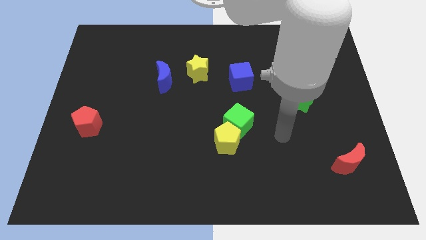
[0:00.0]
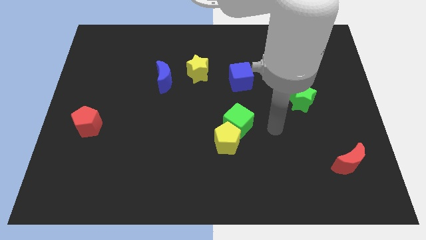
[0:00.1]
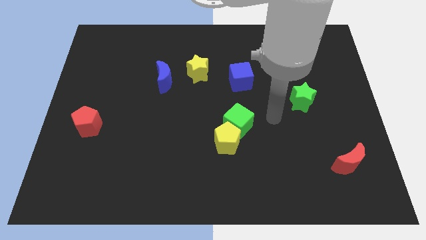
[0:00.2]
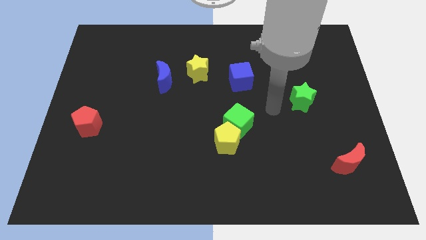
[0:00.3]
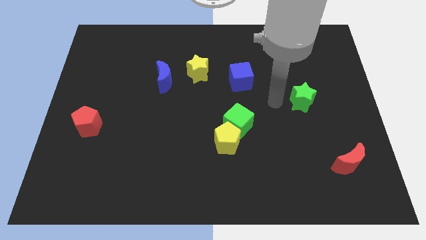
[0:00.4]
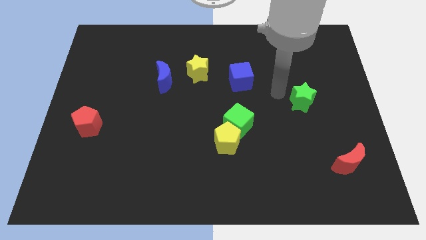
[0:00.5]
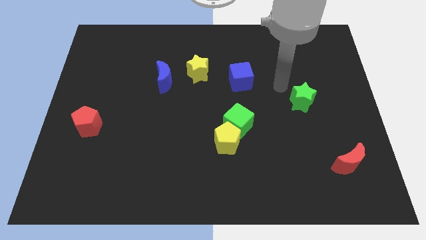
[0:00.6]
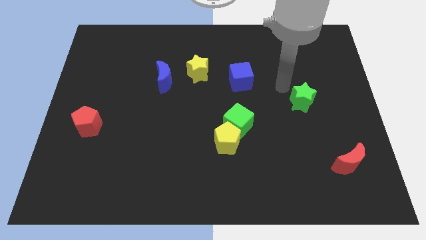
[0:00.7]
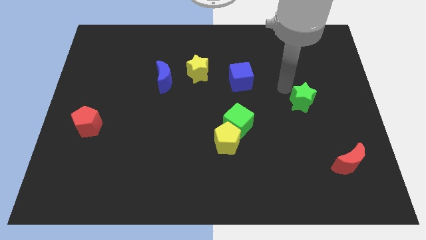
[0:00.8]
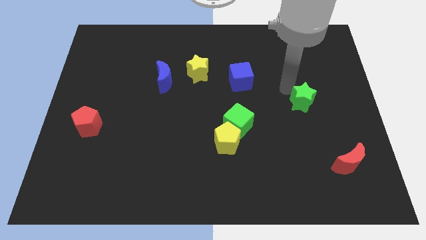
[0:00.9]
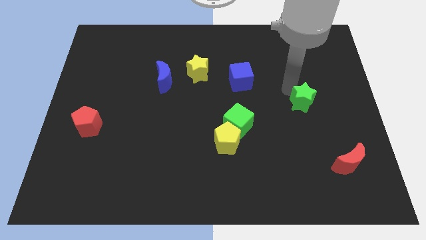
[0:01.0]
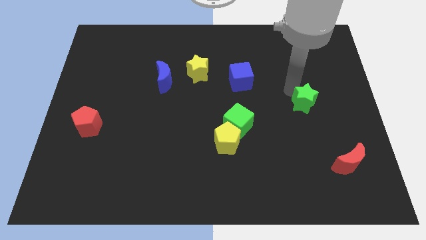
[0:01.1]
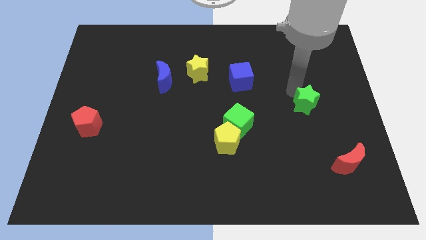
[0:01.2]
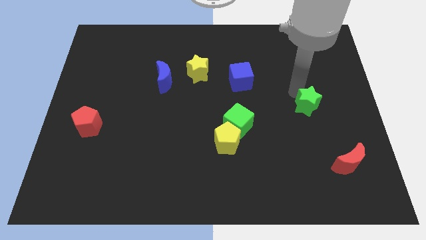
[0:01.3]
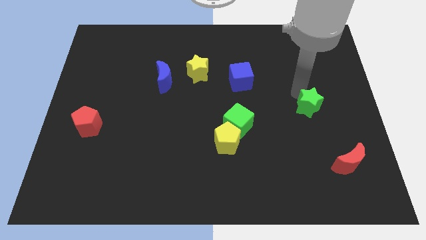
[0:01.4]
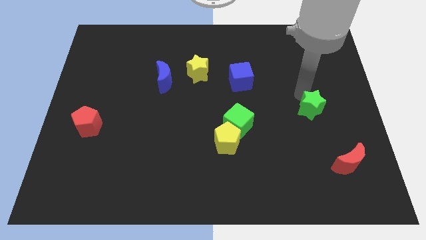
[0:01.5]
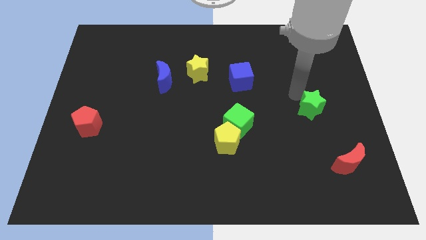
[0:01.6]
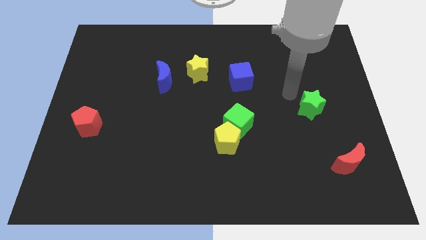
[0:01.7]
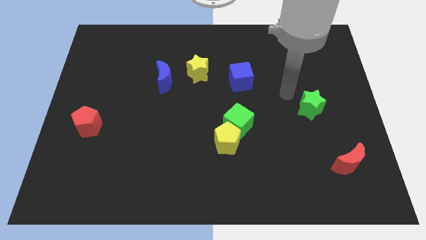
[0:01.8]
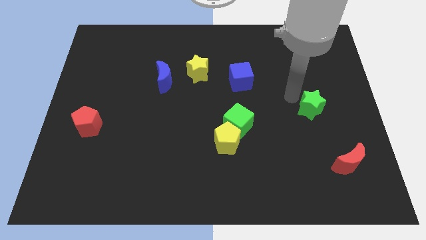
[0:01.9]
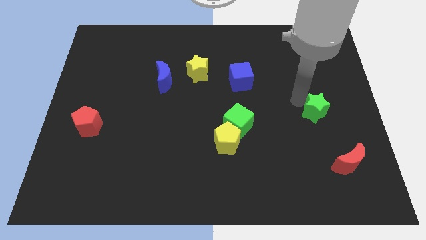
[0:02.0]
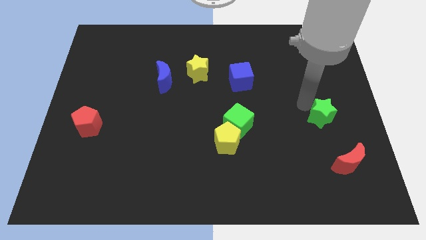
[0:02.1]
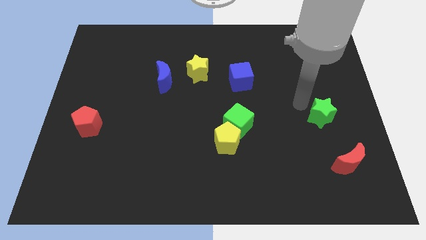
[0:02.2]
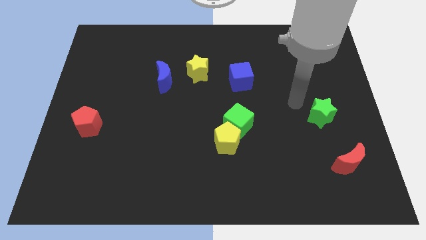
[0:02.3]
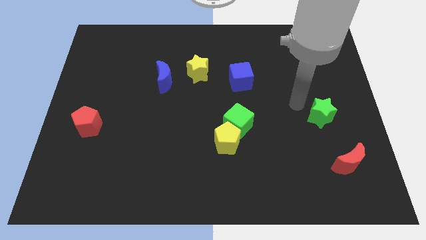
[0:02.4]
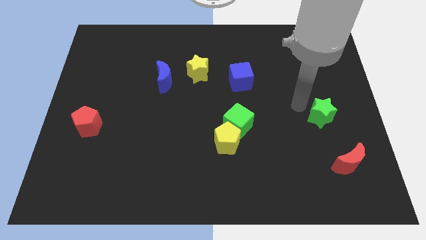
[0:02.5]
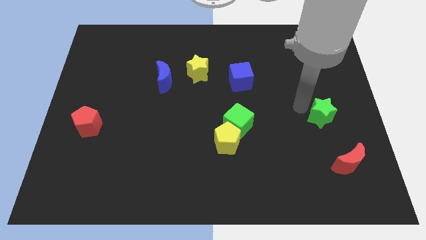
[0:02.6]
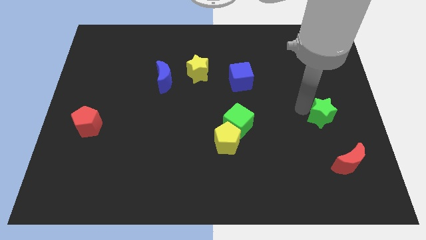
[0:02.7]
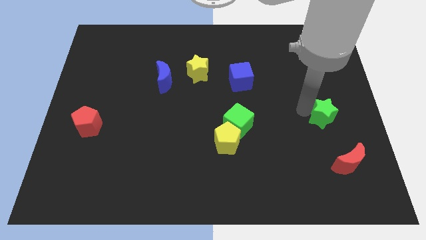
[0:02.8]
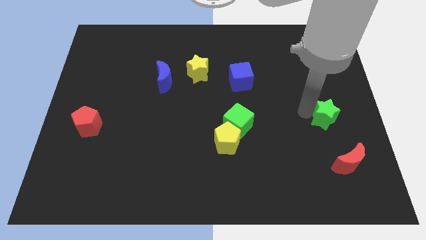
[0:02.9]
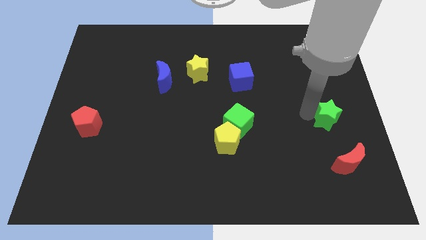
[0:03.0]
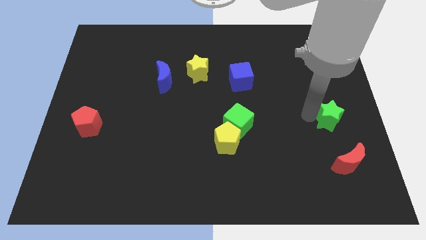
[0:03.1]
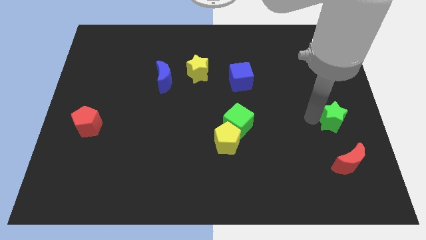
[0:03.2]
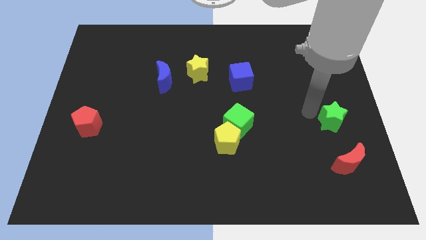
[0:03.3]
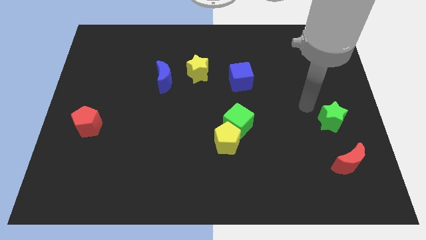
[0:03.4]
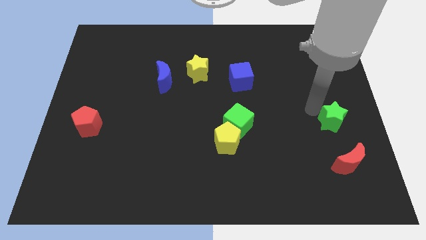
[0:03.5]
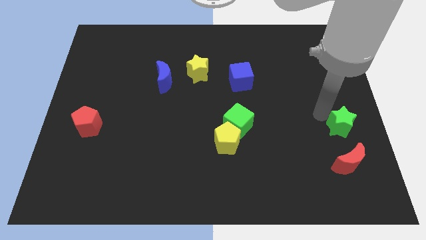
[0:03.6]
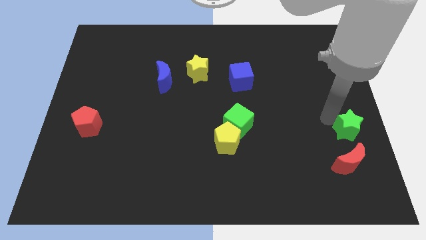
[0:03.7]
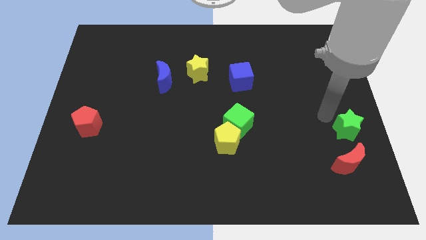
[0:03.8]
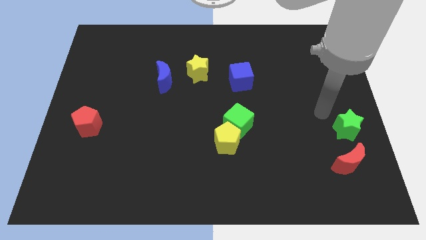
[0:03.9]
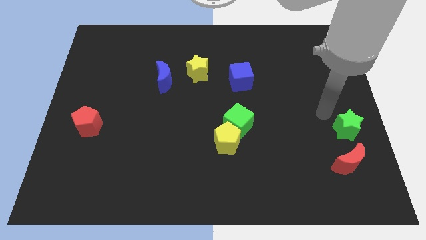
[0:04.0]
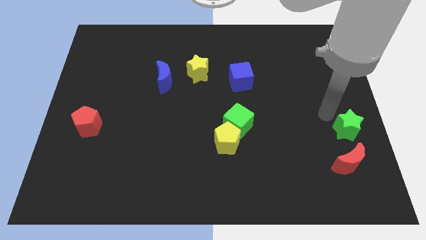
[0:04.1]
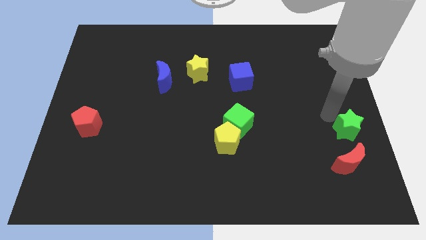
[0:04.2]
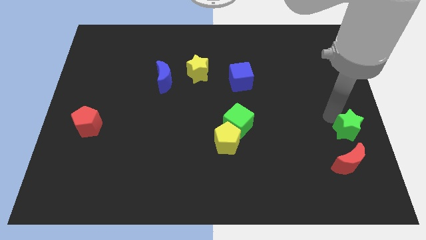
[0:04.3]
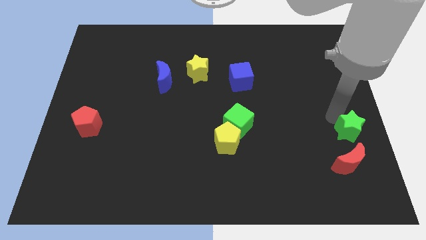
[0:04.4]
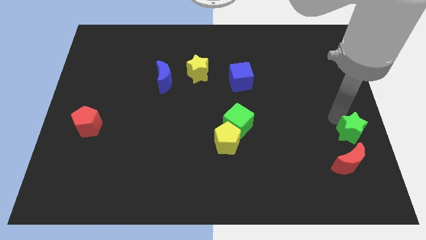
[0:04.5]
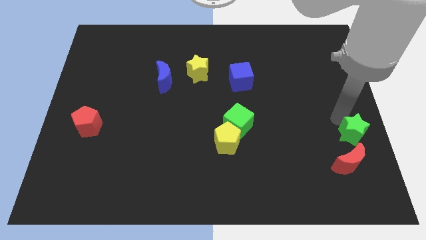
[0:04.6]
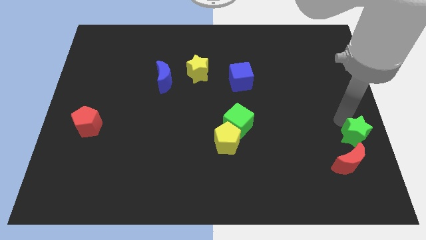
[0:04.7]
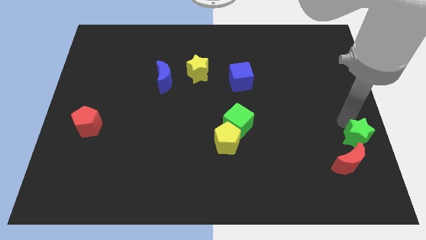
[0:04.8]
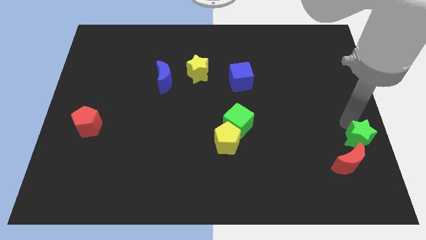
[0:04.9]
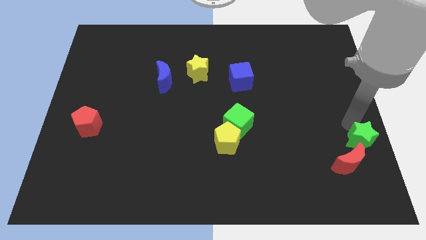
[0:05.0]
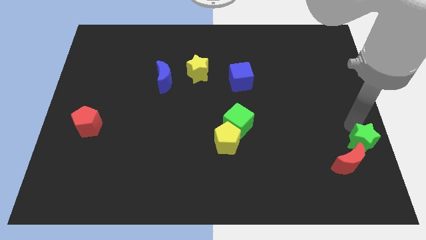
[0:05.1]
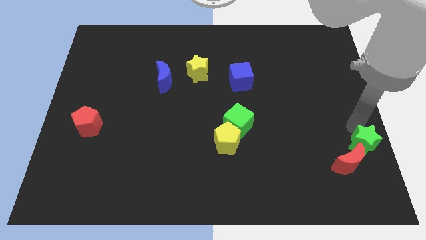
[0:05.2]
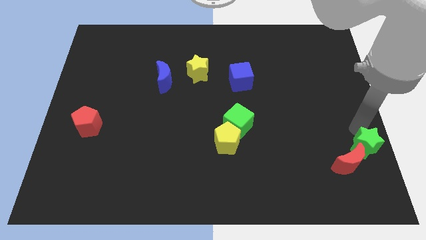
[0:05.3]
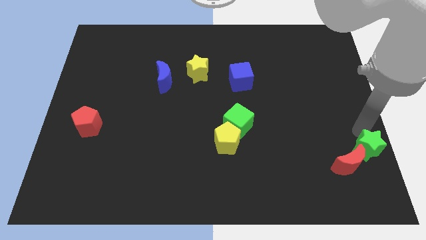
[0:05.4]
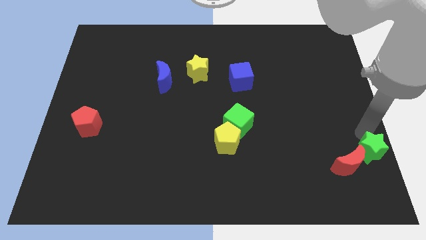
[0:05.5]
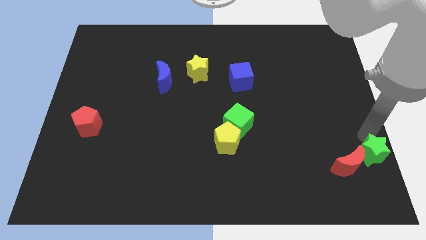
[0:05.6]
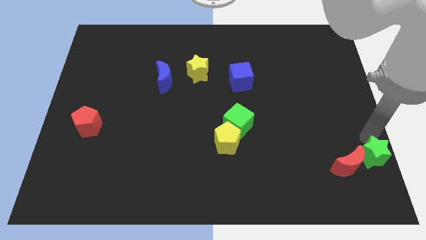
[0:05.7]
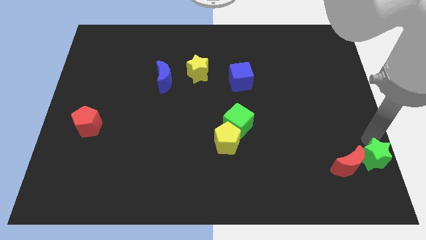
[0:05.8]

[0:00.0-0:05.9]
push the green star to the bottom right corner

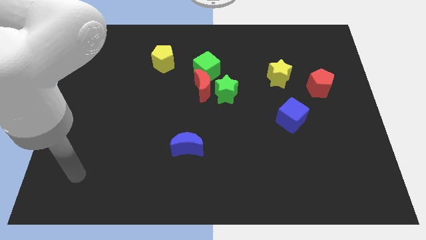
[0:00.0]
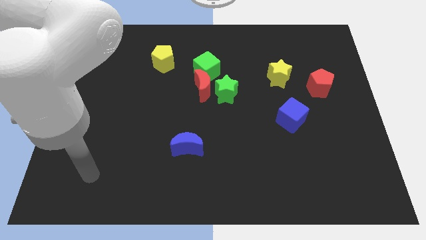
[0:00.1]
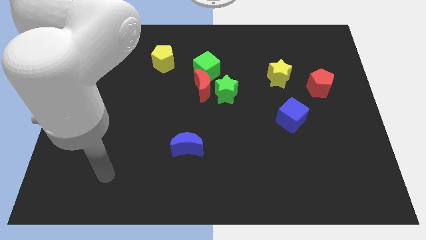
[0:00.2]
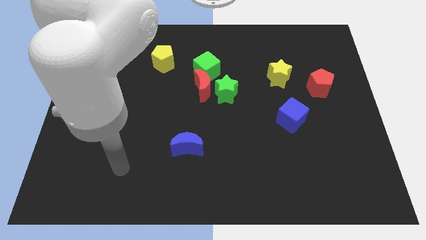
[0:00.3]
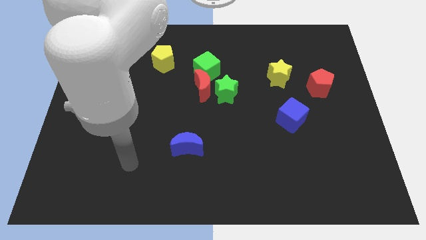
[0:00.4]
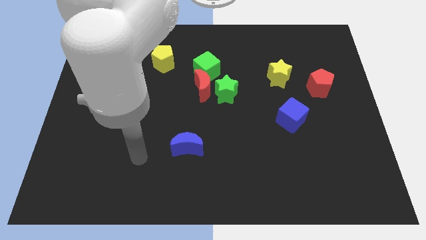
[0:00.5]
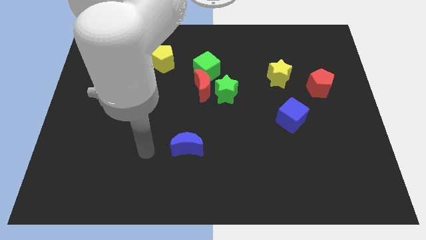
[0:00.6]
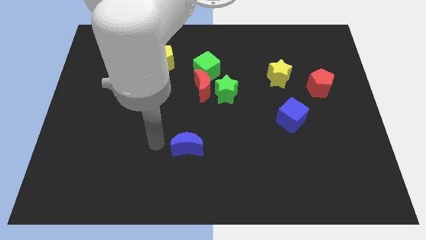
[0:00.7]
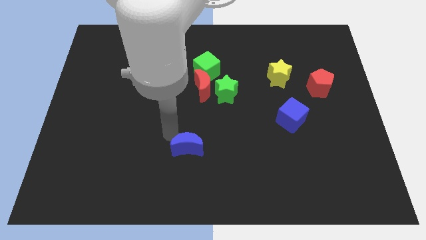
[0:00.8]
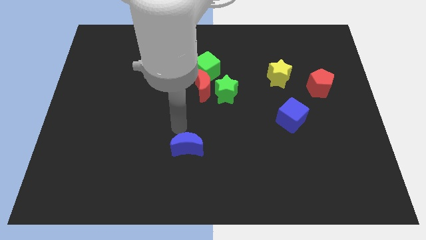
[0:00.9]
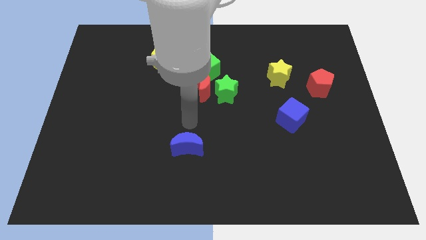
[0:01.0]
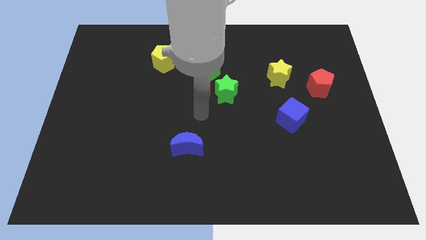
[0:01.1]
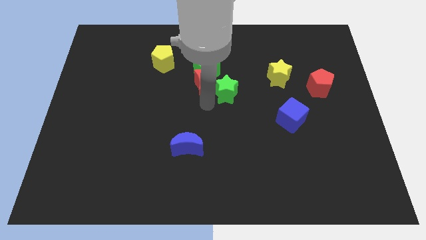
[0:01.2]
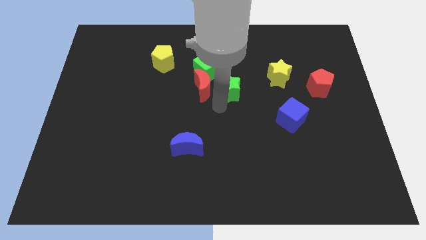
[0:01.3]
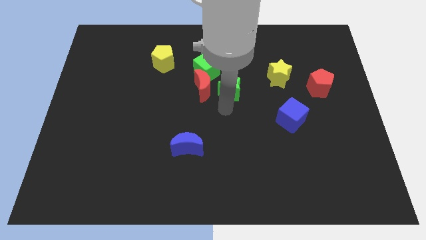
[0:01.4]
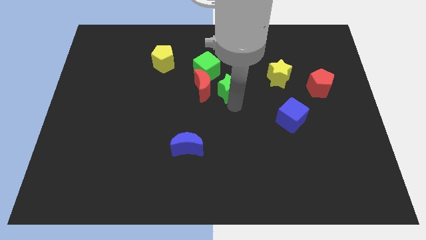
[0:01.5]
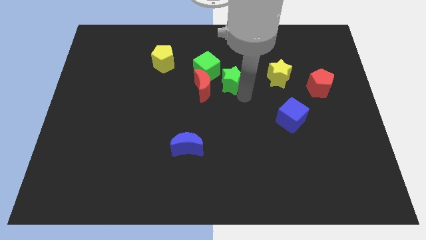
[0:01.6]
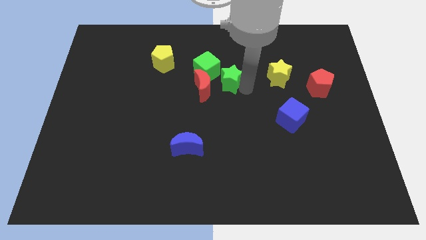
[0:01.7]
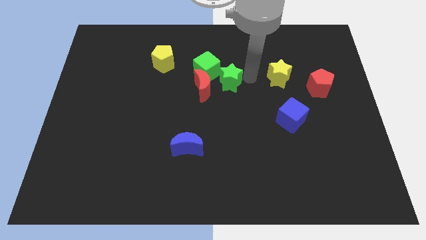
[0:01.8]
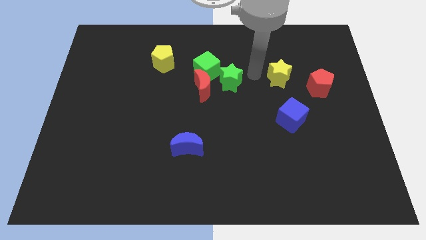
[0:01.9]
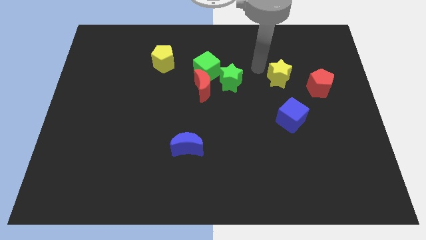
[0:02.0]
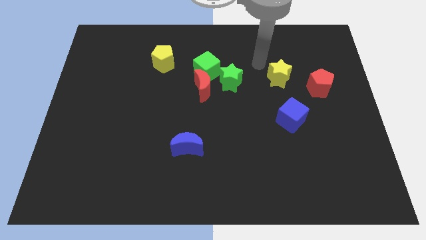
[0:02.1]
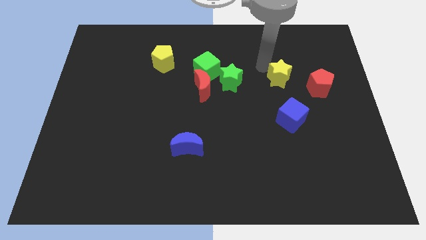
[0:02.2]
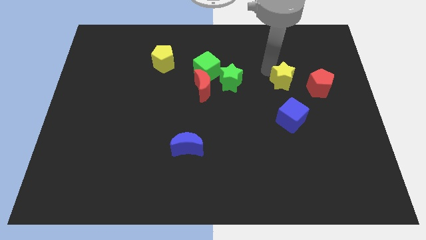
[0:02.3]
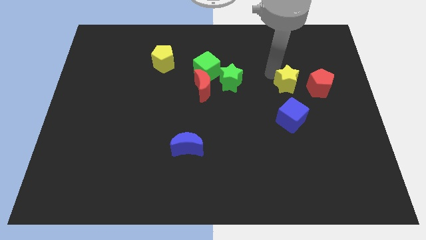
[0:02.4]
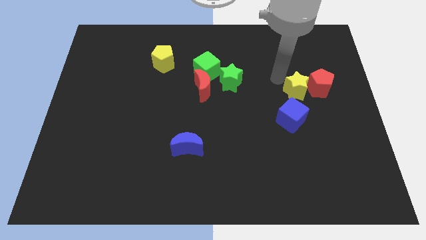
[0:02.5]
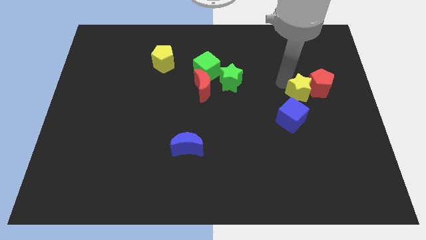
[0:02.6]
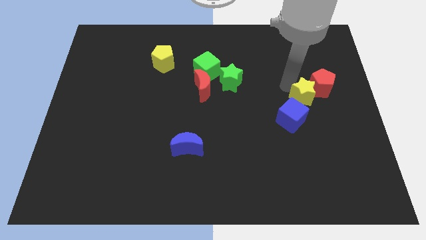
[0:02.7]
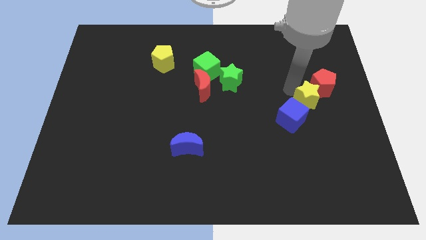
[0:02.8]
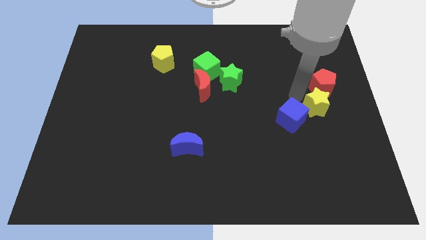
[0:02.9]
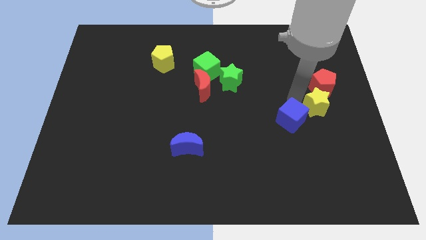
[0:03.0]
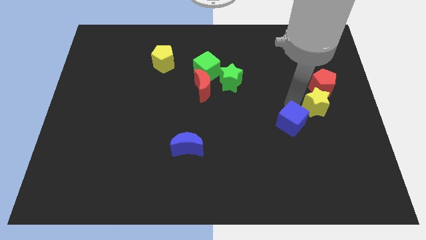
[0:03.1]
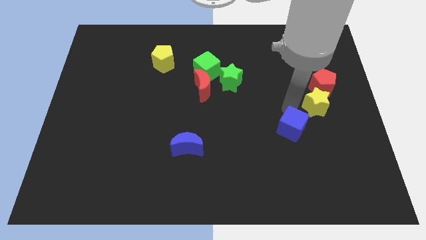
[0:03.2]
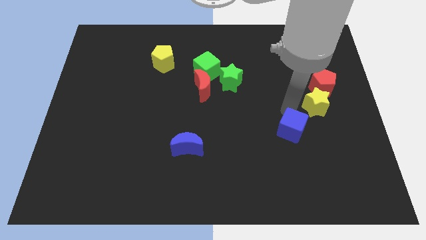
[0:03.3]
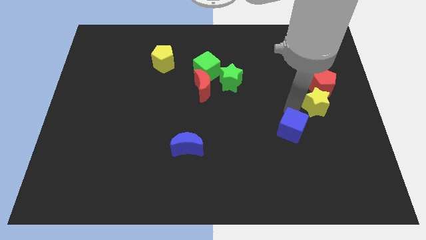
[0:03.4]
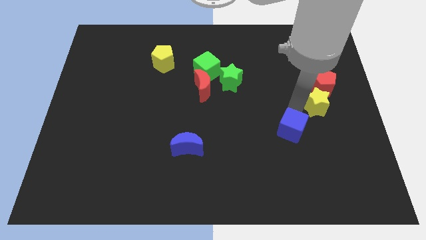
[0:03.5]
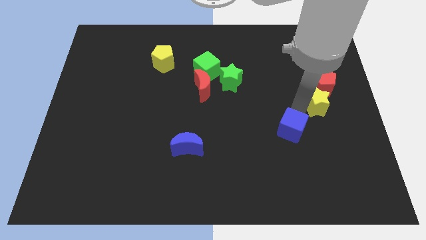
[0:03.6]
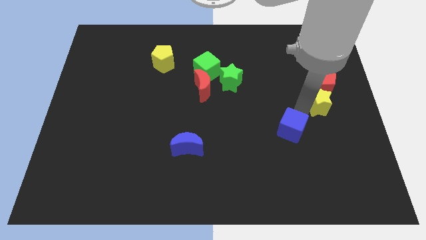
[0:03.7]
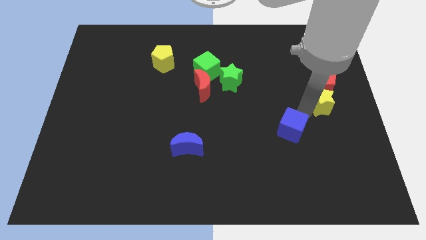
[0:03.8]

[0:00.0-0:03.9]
put the yellow star to the right side of the board
